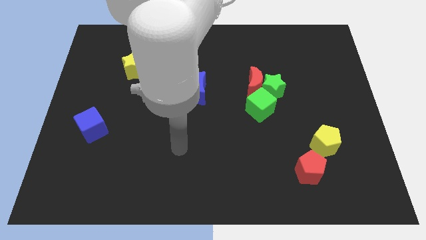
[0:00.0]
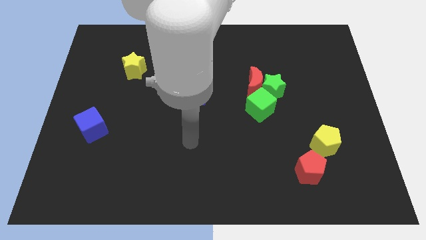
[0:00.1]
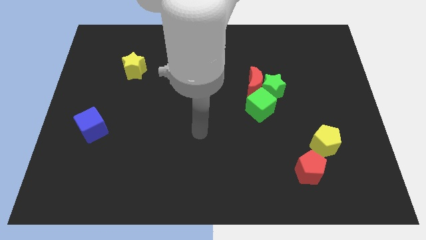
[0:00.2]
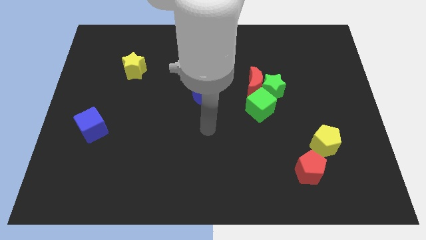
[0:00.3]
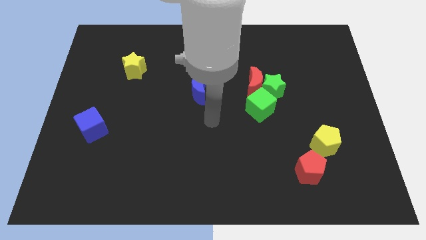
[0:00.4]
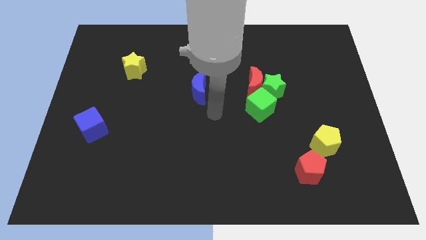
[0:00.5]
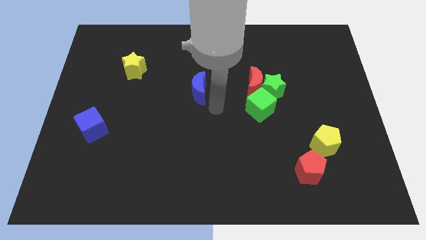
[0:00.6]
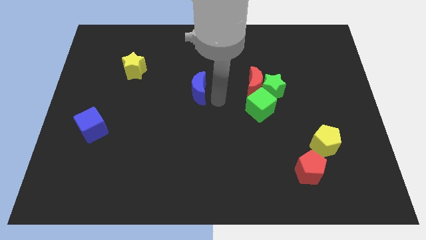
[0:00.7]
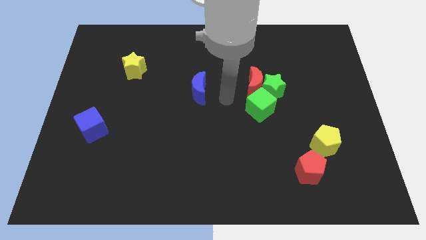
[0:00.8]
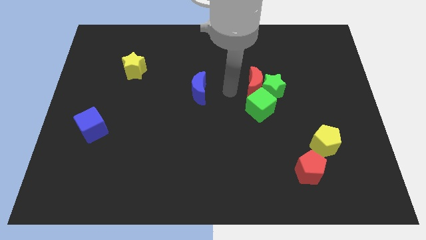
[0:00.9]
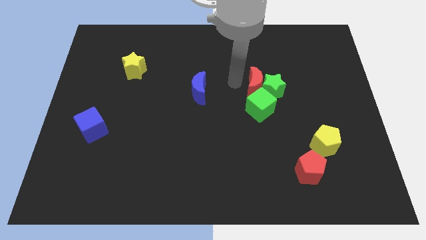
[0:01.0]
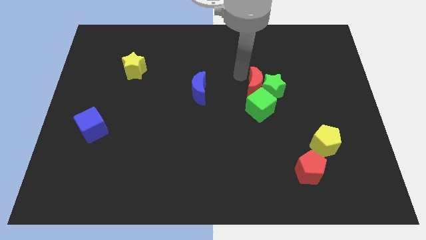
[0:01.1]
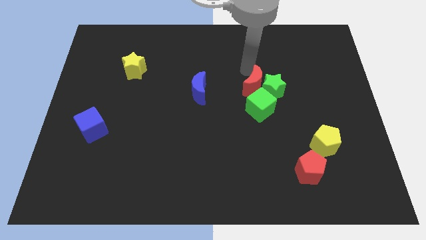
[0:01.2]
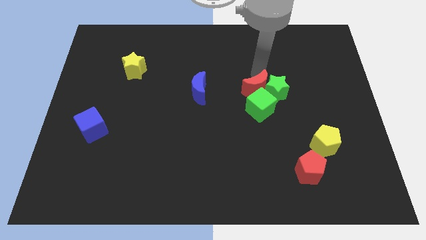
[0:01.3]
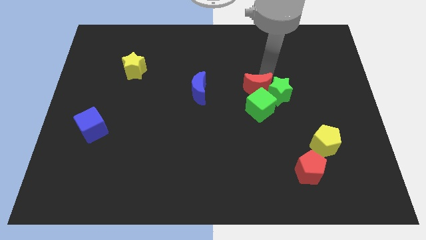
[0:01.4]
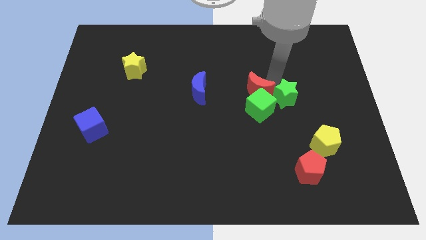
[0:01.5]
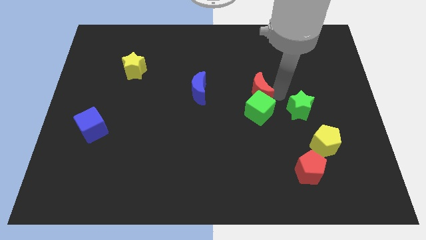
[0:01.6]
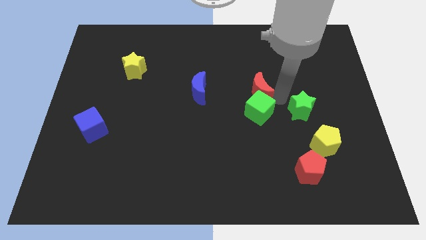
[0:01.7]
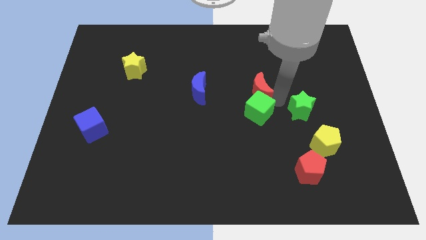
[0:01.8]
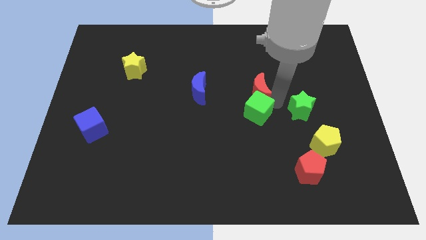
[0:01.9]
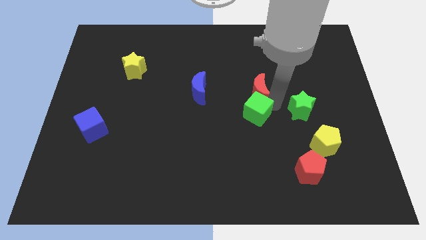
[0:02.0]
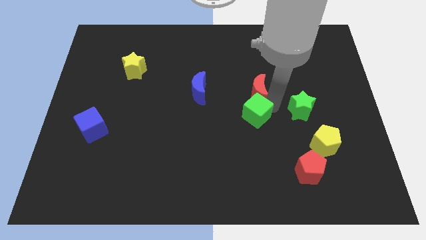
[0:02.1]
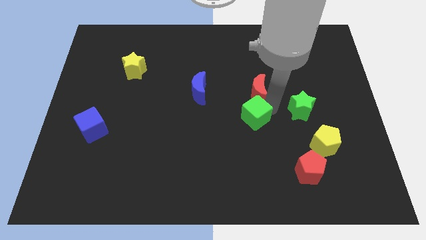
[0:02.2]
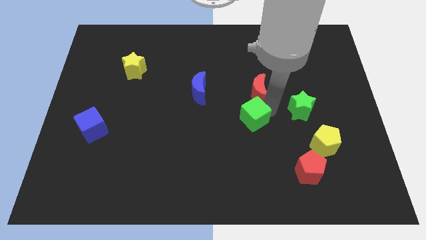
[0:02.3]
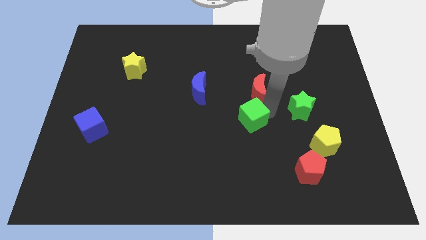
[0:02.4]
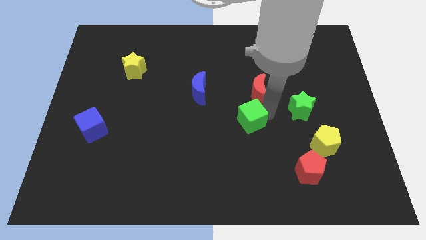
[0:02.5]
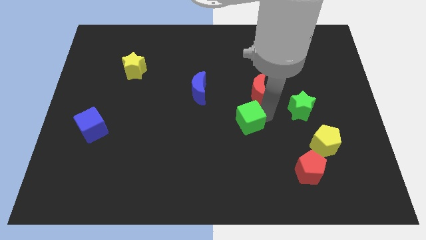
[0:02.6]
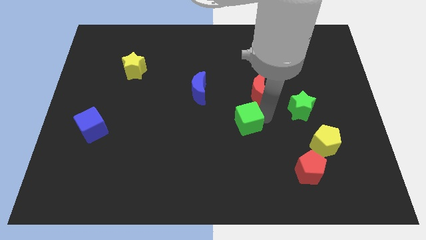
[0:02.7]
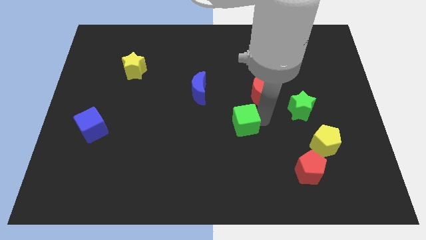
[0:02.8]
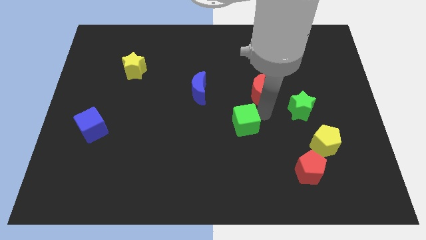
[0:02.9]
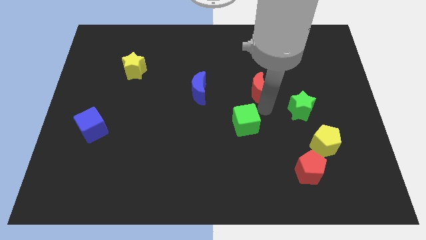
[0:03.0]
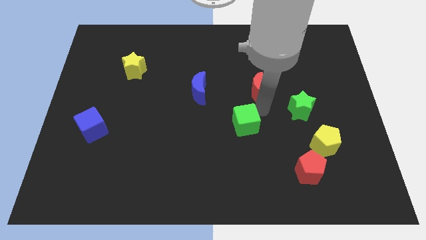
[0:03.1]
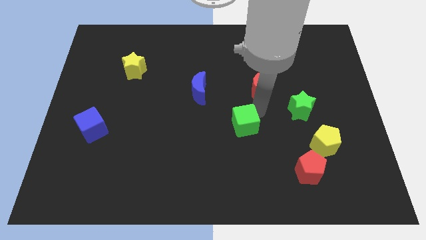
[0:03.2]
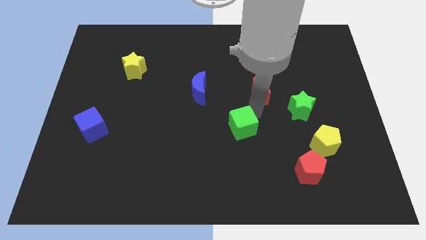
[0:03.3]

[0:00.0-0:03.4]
slightly move the green cube down and left diagonally

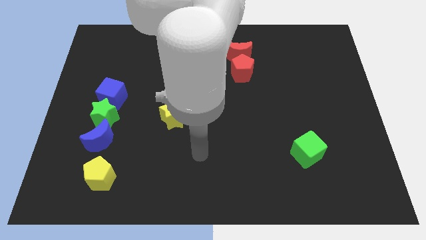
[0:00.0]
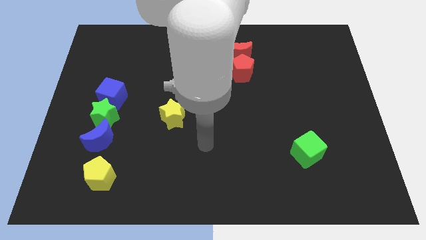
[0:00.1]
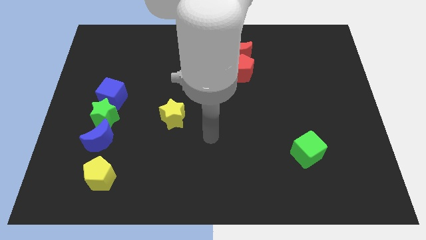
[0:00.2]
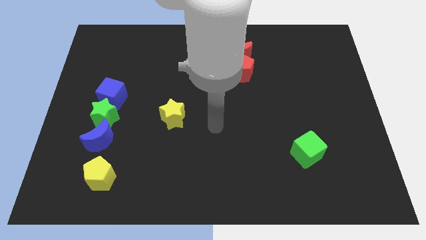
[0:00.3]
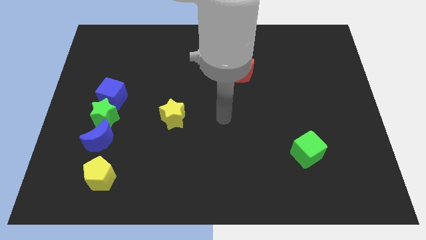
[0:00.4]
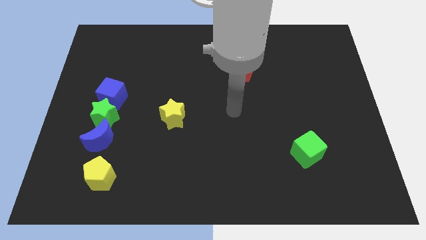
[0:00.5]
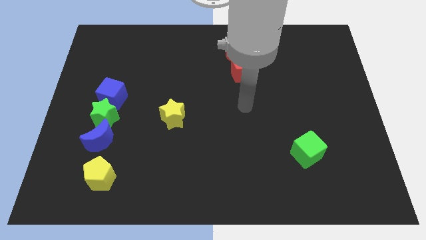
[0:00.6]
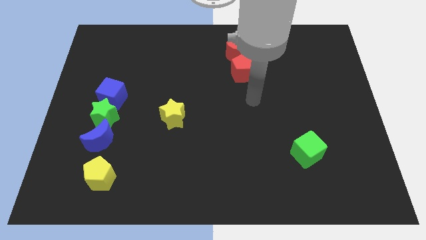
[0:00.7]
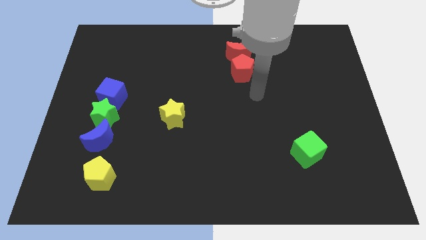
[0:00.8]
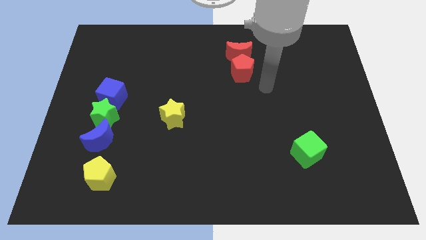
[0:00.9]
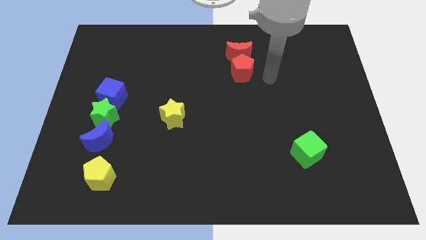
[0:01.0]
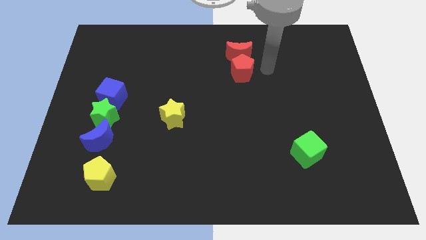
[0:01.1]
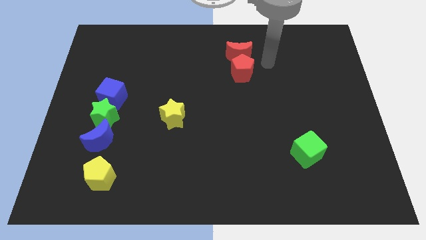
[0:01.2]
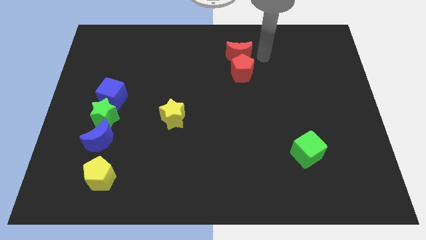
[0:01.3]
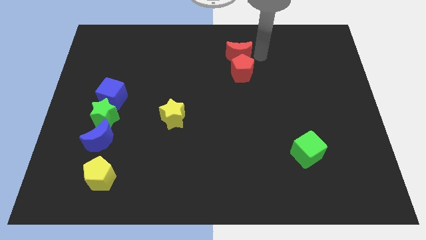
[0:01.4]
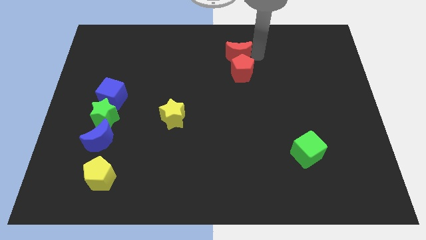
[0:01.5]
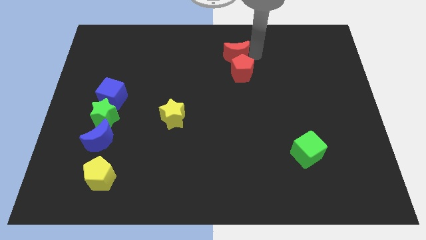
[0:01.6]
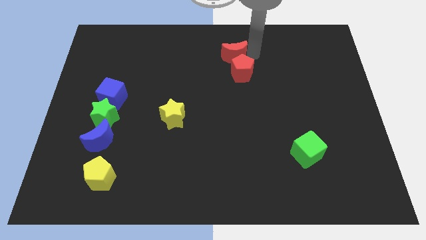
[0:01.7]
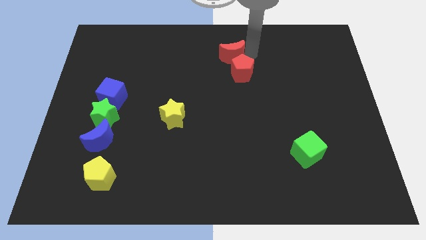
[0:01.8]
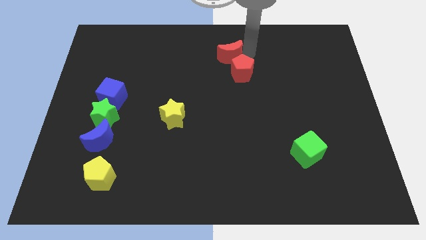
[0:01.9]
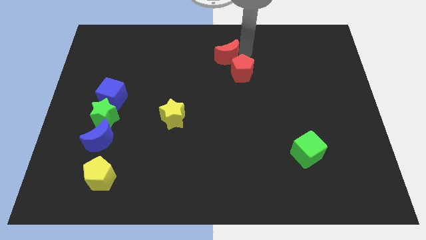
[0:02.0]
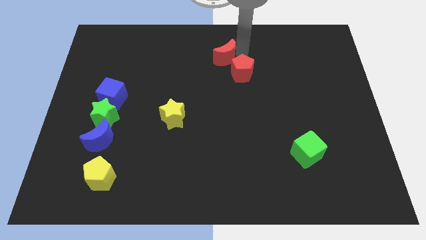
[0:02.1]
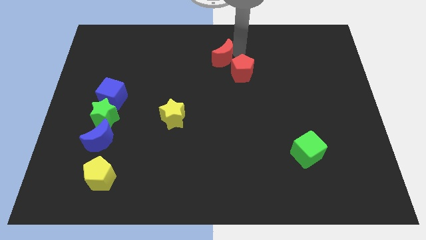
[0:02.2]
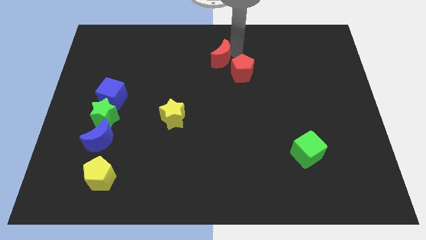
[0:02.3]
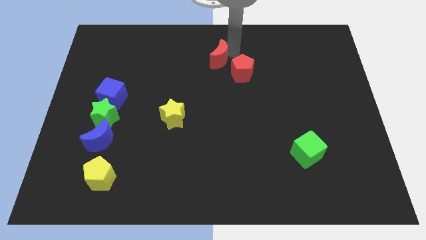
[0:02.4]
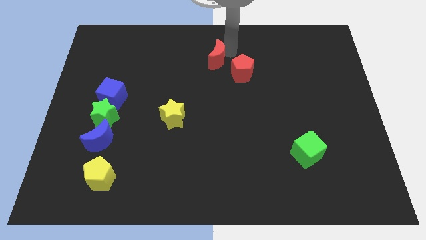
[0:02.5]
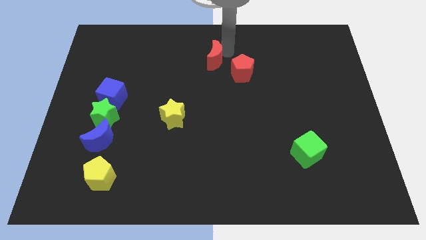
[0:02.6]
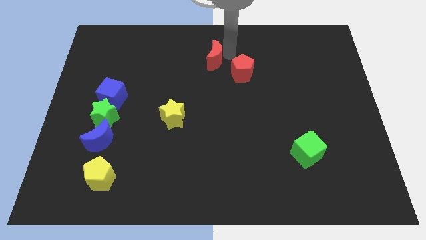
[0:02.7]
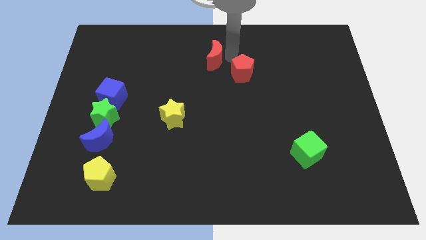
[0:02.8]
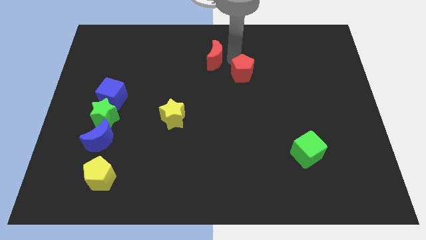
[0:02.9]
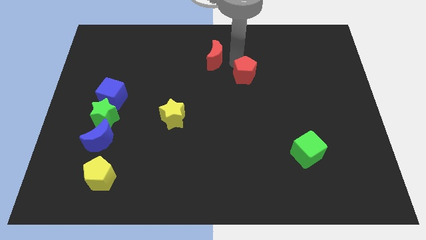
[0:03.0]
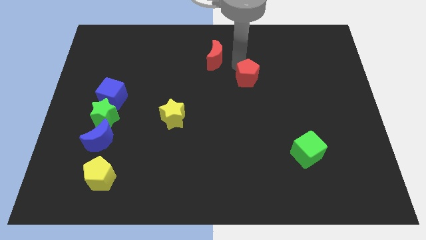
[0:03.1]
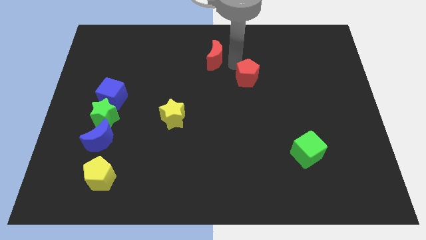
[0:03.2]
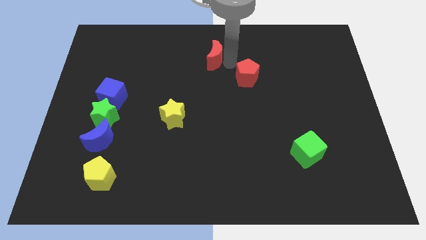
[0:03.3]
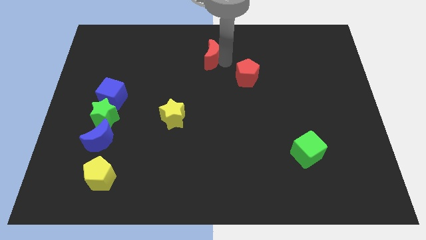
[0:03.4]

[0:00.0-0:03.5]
slide the red moon to the left a little

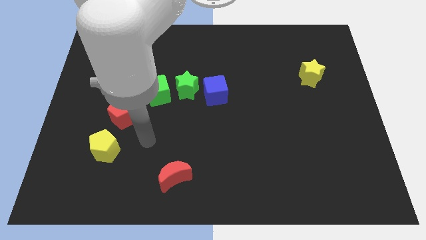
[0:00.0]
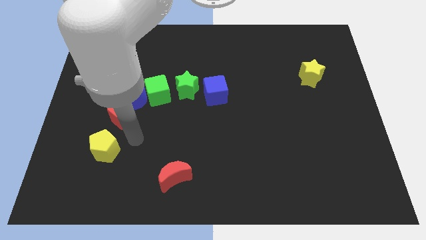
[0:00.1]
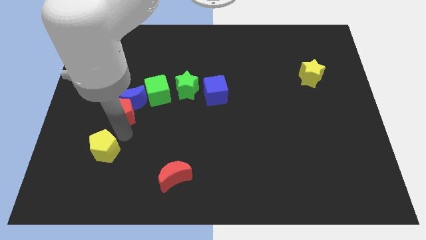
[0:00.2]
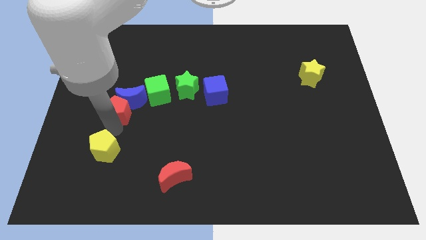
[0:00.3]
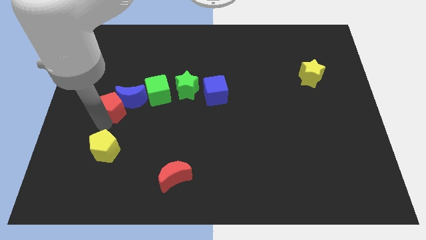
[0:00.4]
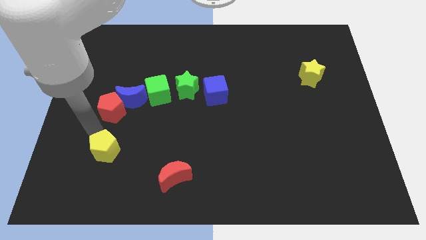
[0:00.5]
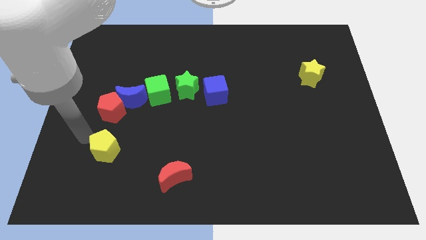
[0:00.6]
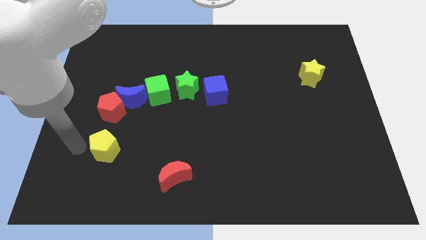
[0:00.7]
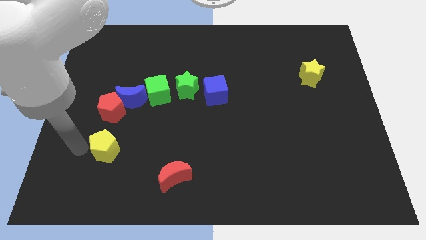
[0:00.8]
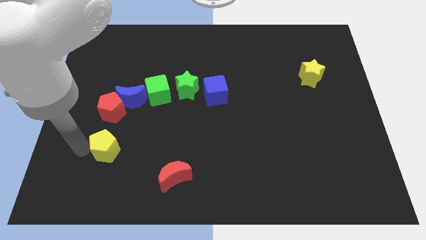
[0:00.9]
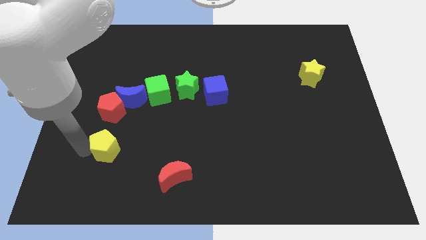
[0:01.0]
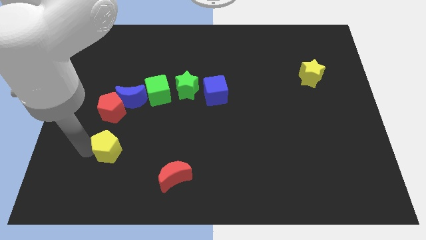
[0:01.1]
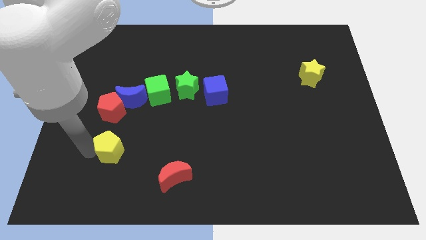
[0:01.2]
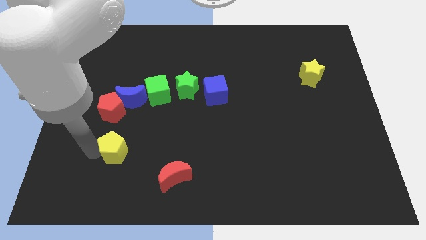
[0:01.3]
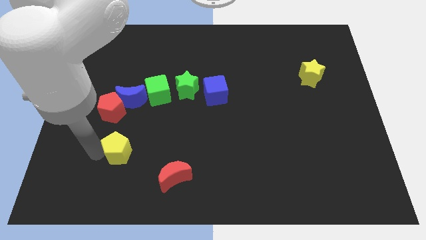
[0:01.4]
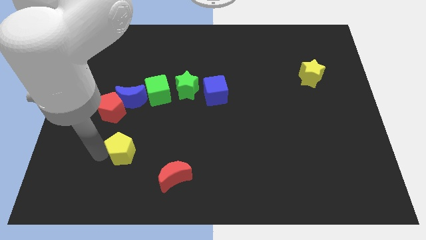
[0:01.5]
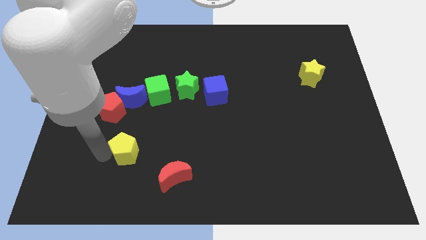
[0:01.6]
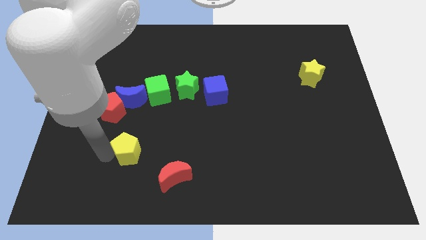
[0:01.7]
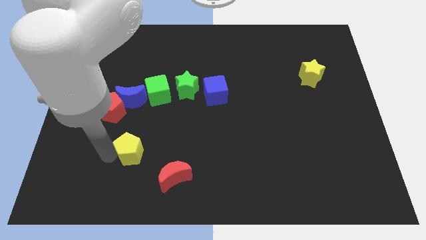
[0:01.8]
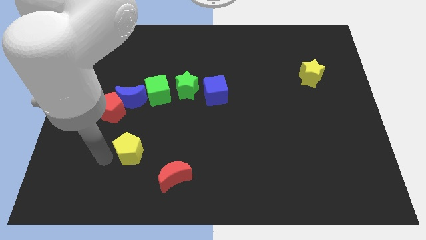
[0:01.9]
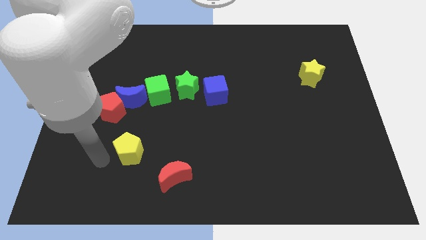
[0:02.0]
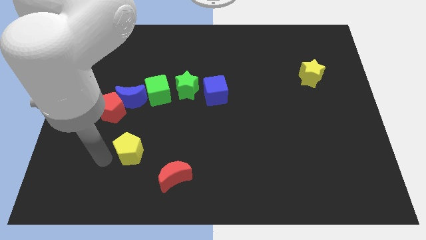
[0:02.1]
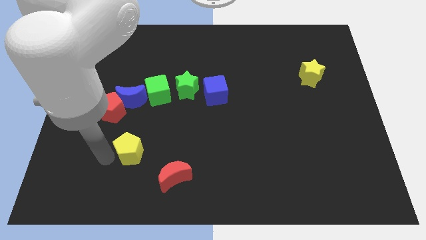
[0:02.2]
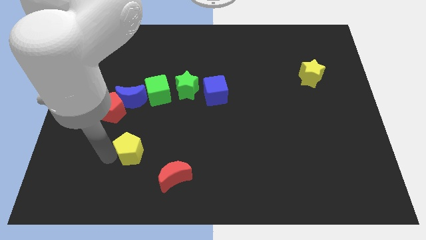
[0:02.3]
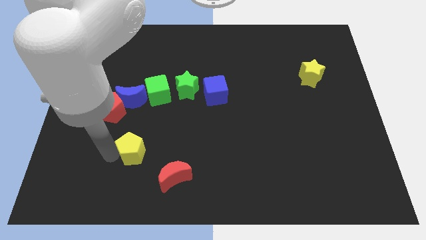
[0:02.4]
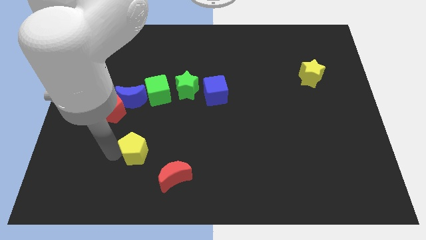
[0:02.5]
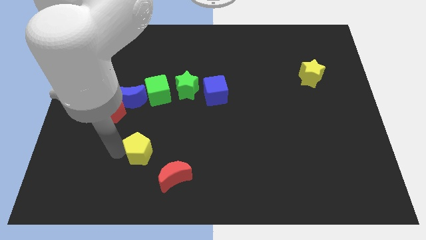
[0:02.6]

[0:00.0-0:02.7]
push the yellow pentagon to the right a little
